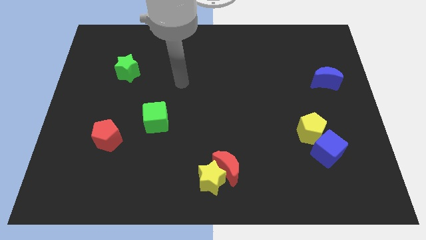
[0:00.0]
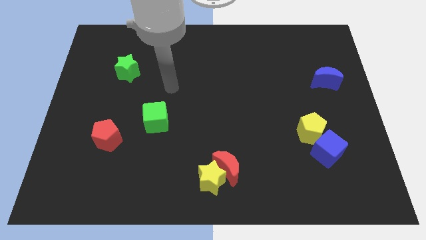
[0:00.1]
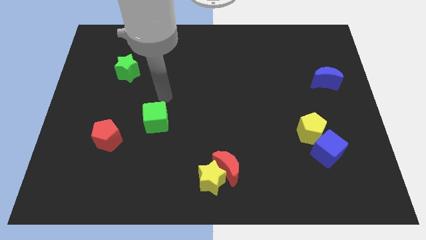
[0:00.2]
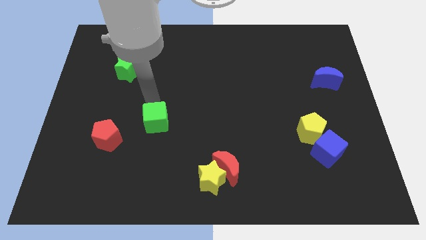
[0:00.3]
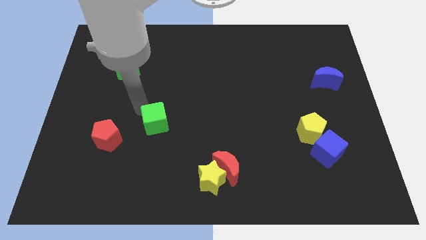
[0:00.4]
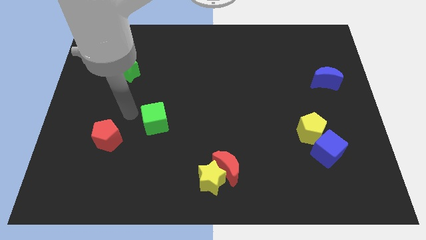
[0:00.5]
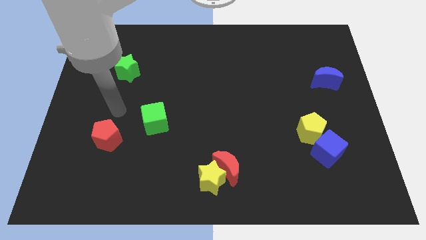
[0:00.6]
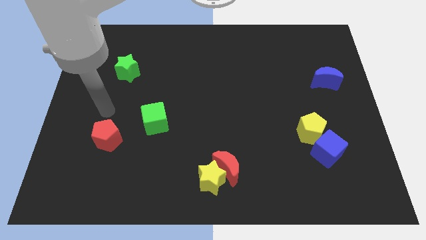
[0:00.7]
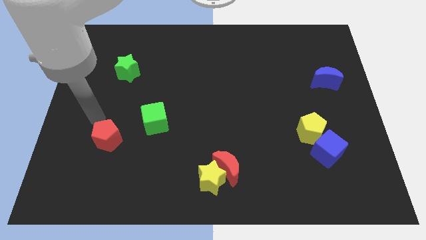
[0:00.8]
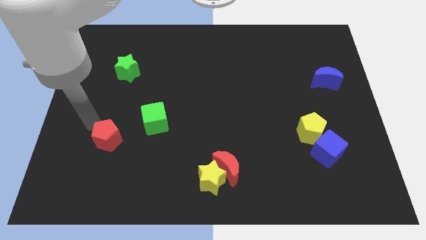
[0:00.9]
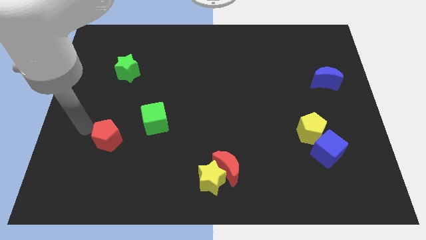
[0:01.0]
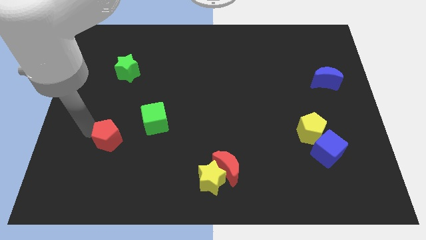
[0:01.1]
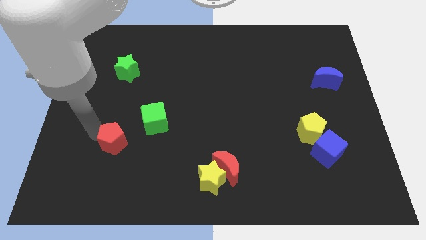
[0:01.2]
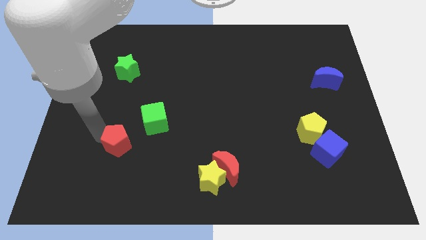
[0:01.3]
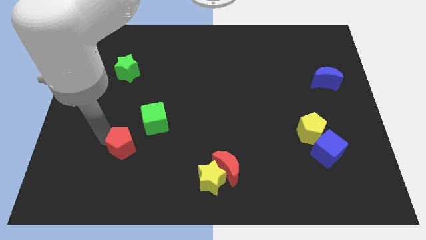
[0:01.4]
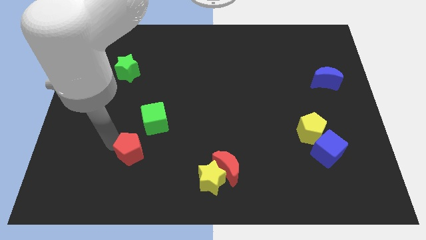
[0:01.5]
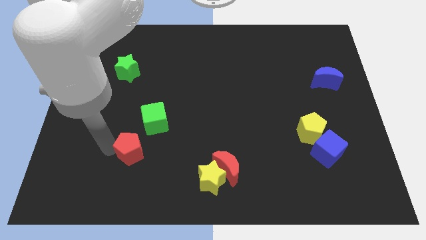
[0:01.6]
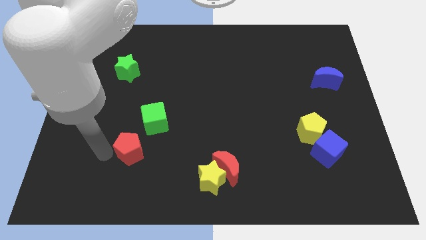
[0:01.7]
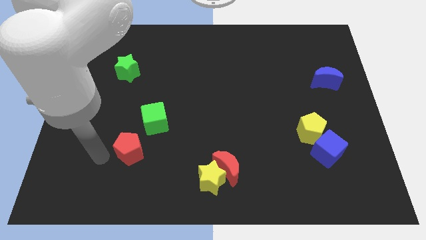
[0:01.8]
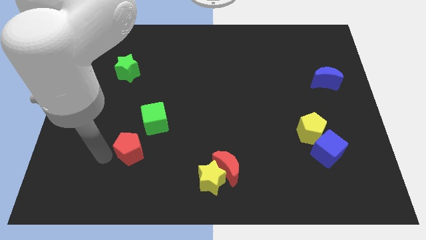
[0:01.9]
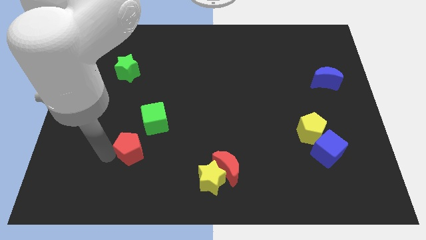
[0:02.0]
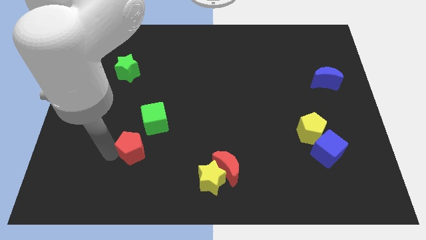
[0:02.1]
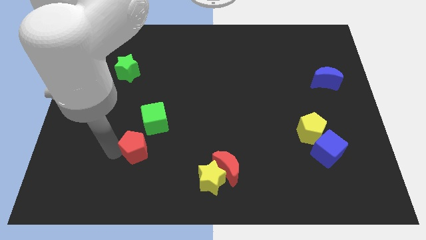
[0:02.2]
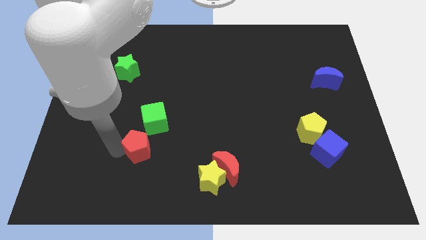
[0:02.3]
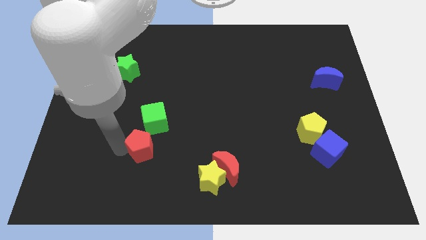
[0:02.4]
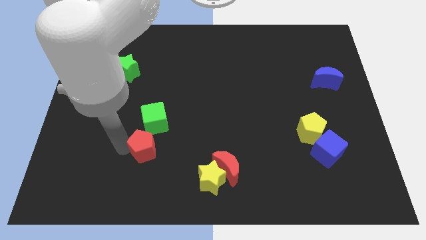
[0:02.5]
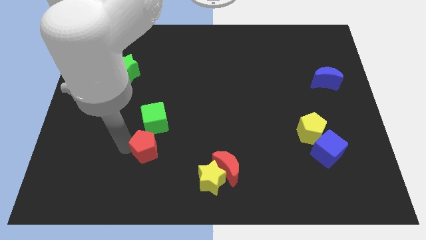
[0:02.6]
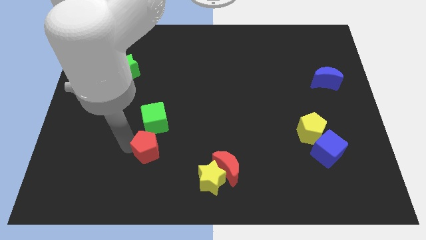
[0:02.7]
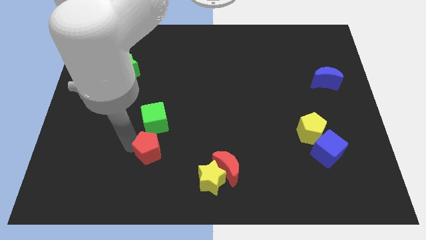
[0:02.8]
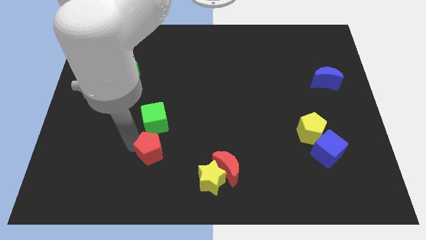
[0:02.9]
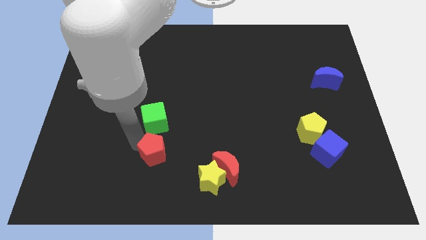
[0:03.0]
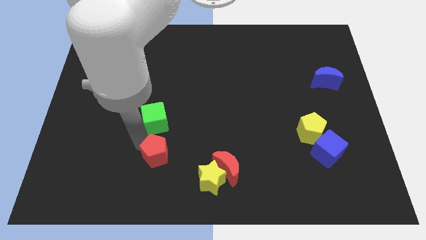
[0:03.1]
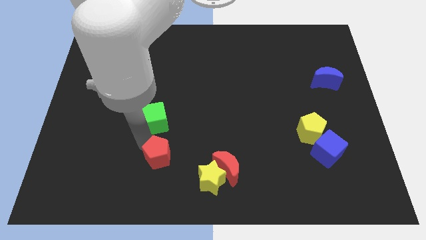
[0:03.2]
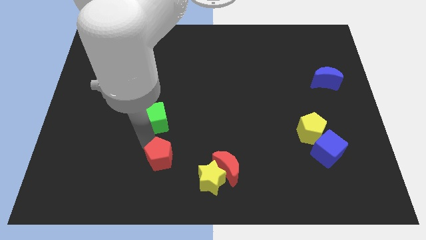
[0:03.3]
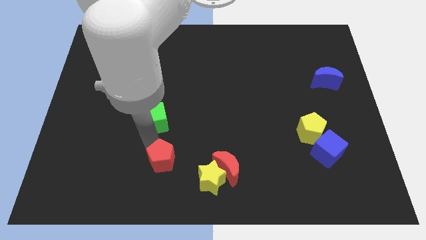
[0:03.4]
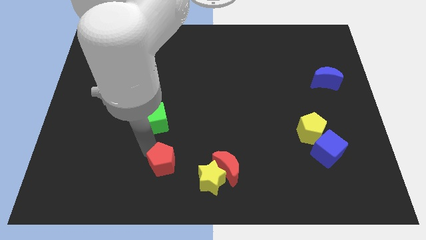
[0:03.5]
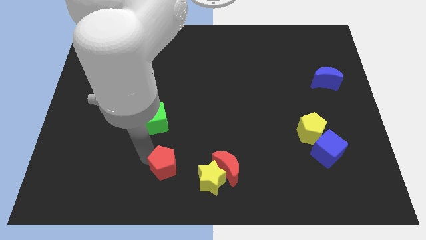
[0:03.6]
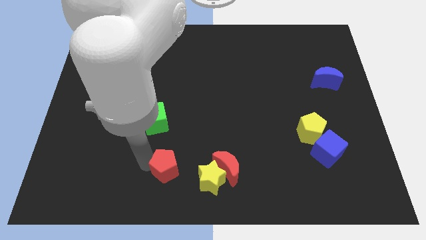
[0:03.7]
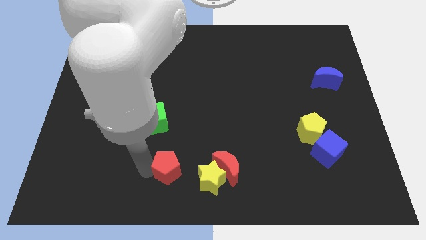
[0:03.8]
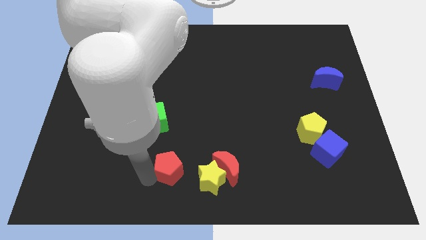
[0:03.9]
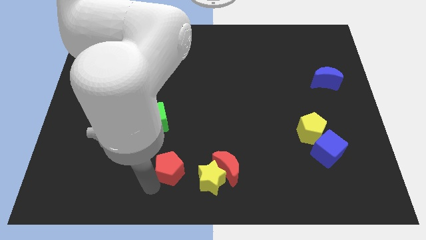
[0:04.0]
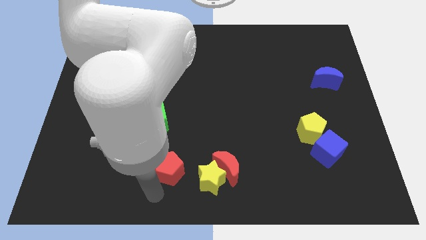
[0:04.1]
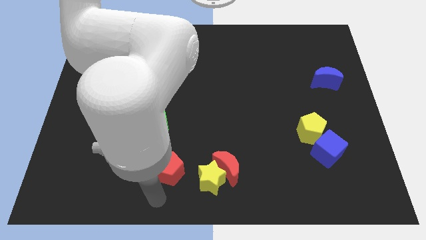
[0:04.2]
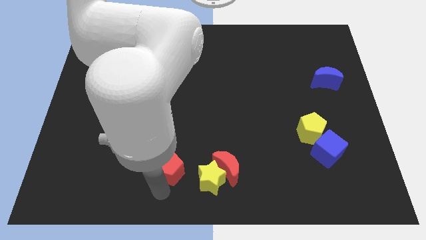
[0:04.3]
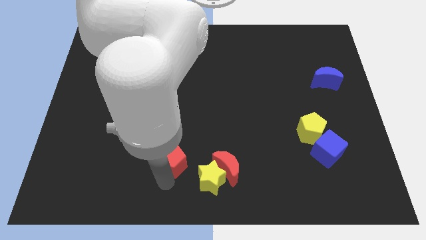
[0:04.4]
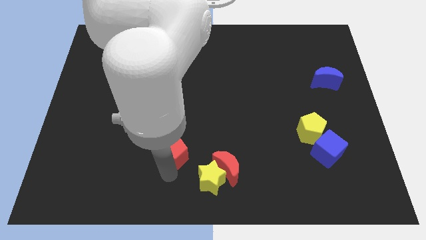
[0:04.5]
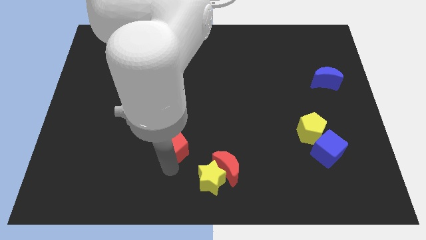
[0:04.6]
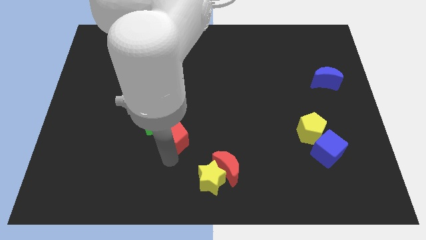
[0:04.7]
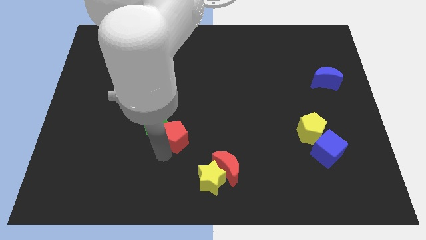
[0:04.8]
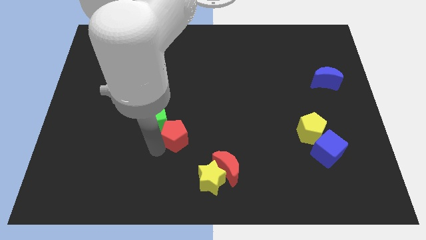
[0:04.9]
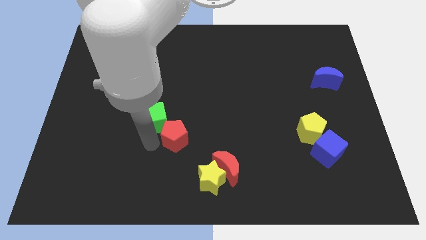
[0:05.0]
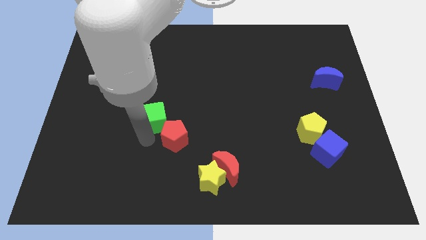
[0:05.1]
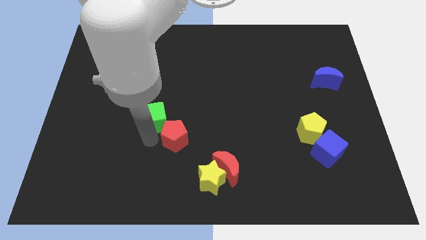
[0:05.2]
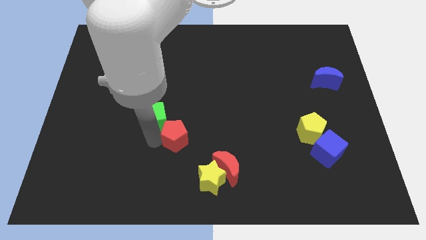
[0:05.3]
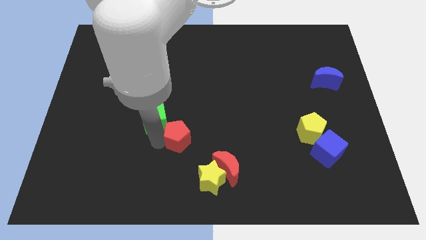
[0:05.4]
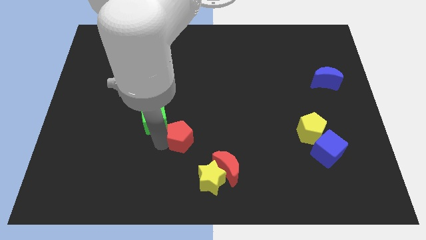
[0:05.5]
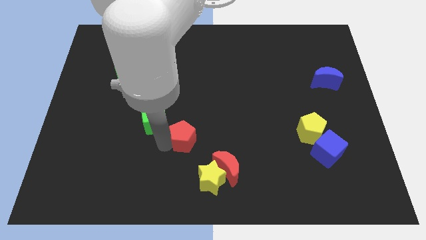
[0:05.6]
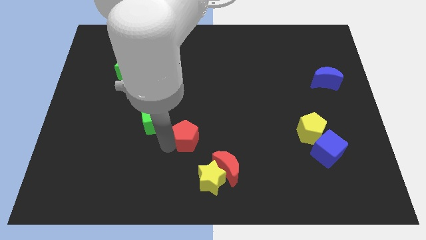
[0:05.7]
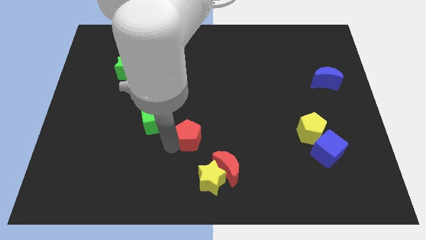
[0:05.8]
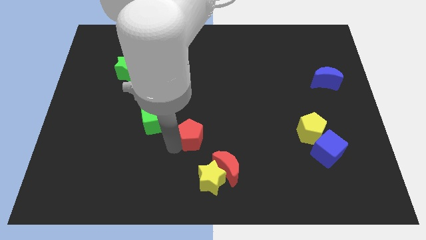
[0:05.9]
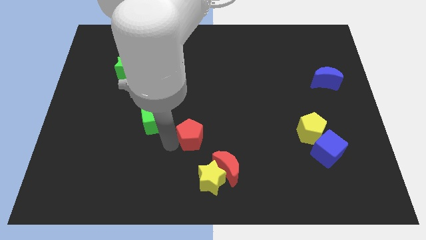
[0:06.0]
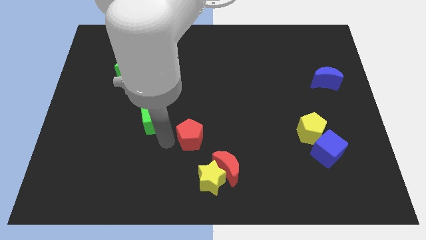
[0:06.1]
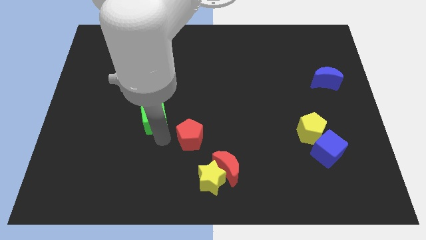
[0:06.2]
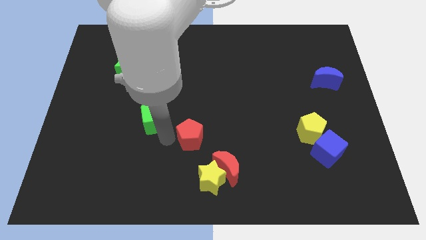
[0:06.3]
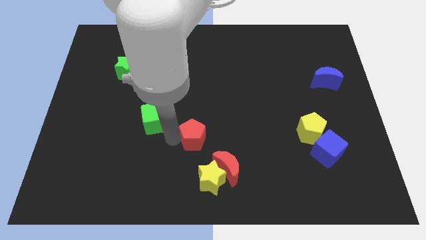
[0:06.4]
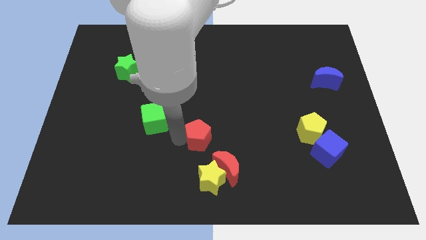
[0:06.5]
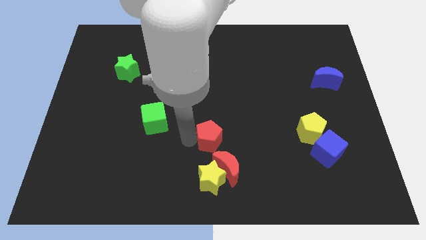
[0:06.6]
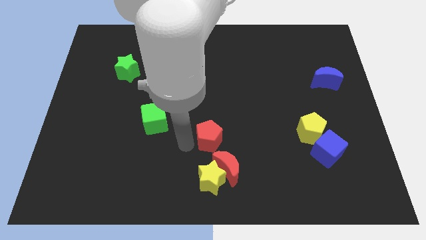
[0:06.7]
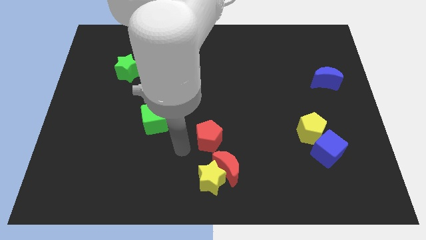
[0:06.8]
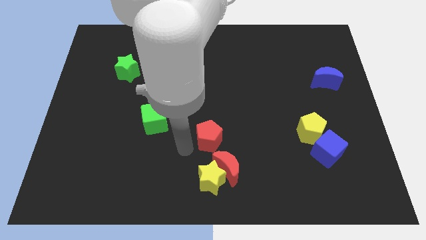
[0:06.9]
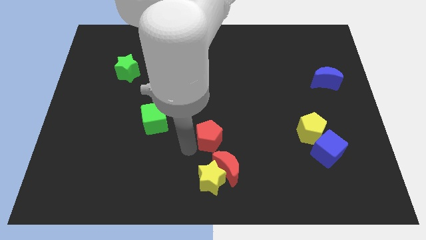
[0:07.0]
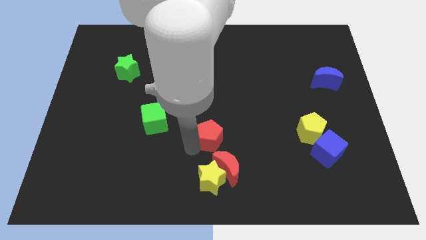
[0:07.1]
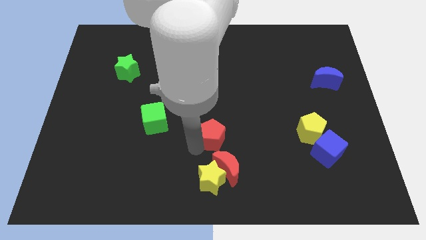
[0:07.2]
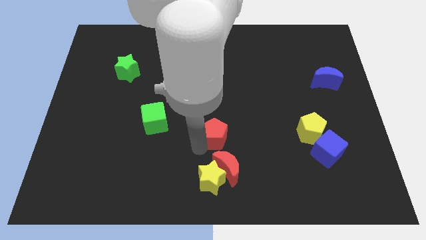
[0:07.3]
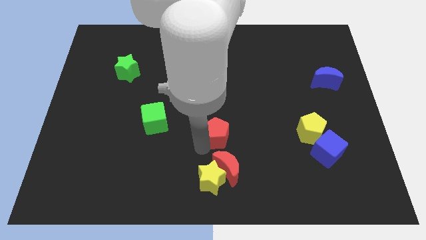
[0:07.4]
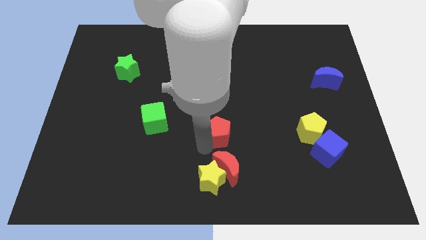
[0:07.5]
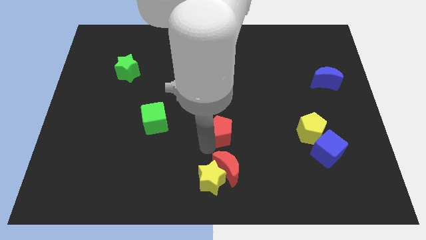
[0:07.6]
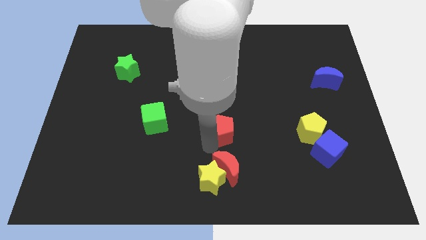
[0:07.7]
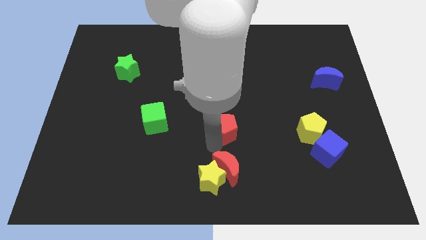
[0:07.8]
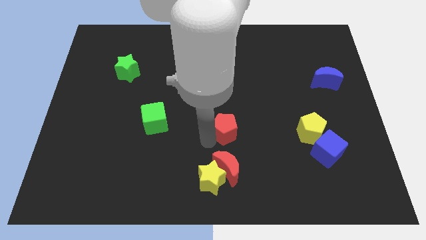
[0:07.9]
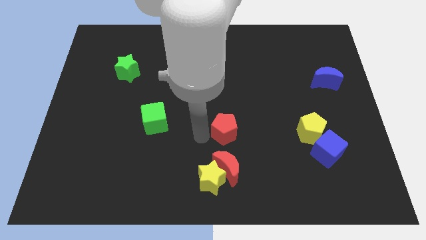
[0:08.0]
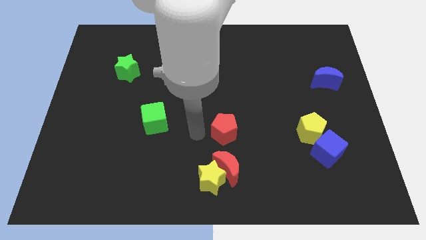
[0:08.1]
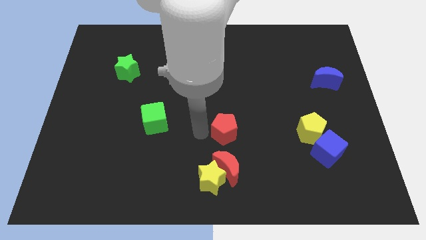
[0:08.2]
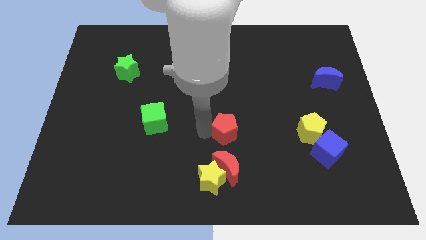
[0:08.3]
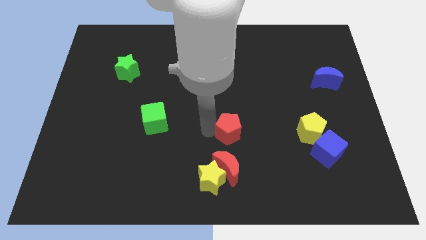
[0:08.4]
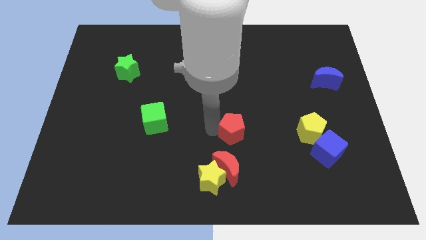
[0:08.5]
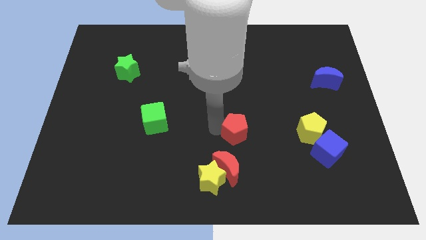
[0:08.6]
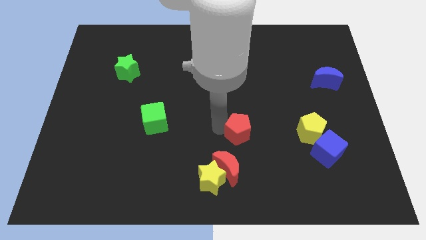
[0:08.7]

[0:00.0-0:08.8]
put the red pentagon to the left side of the yellow pentagon
